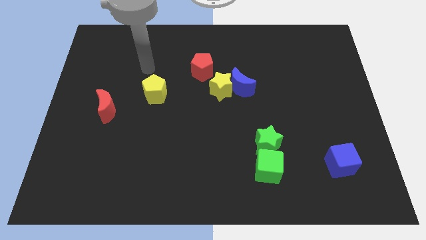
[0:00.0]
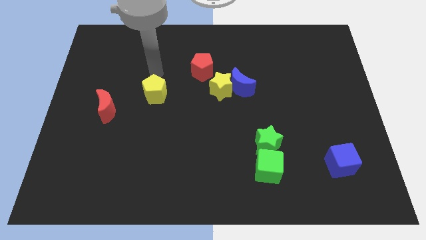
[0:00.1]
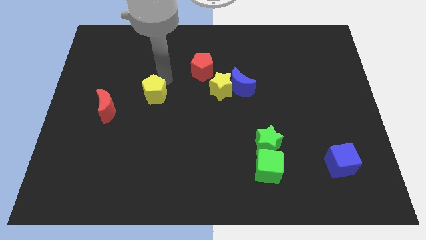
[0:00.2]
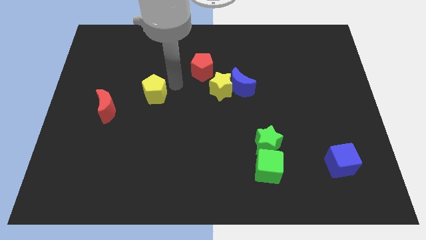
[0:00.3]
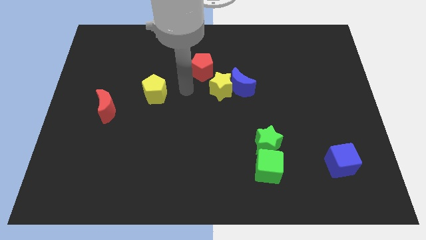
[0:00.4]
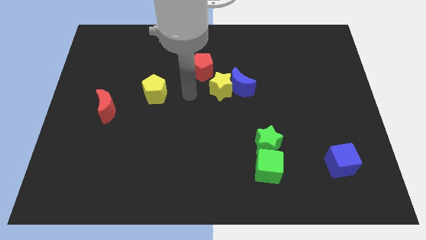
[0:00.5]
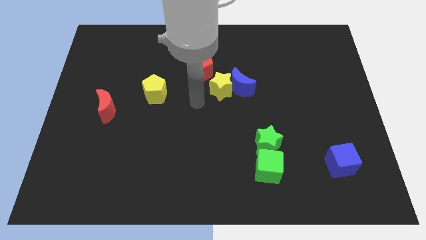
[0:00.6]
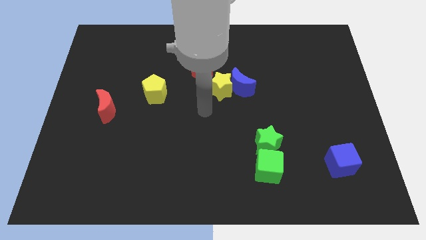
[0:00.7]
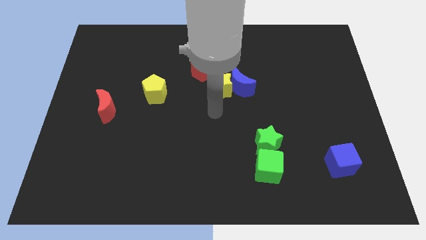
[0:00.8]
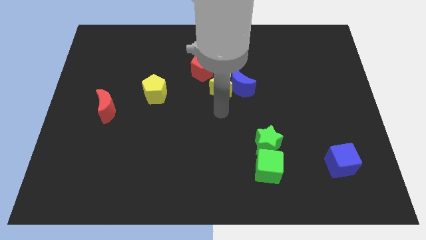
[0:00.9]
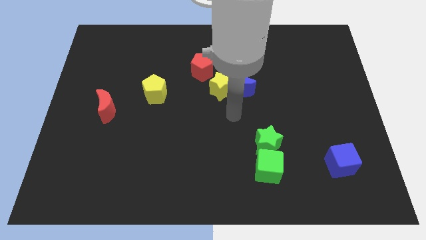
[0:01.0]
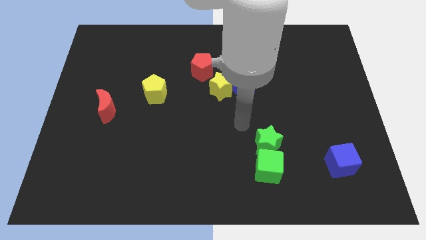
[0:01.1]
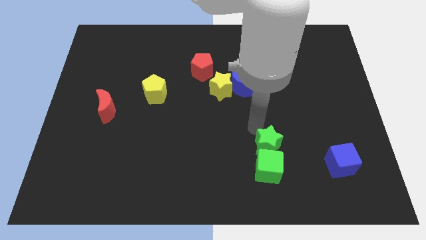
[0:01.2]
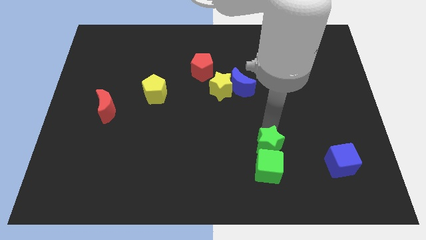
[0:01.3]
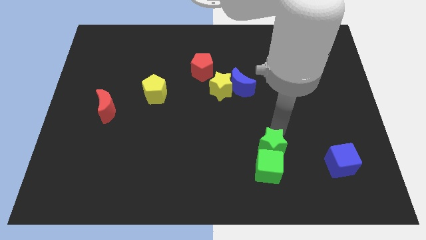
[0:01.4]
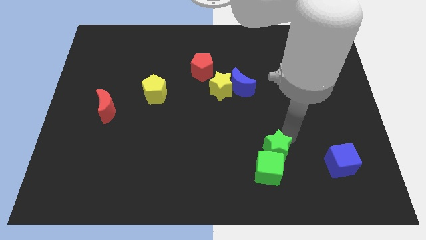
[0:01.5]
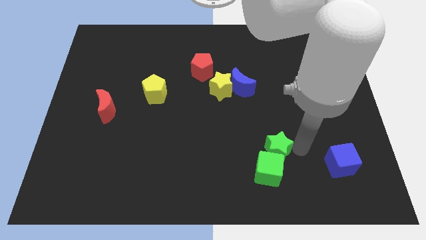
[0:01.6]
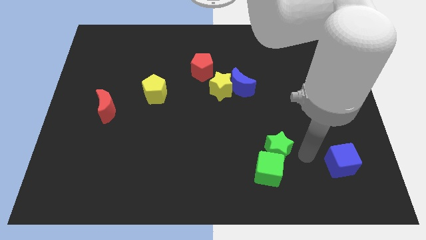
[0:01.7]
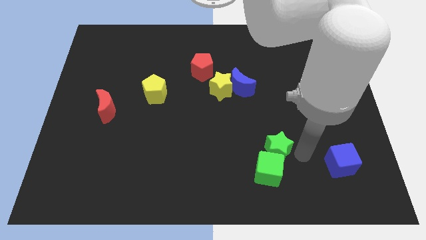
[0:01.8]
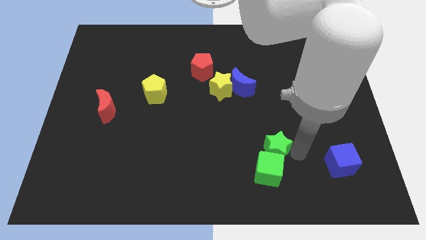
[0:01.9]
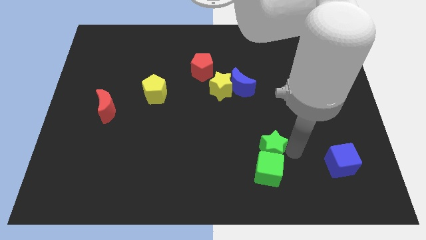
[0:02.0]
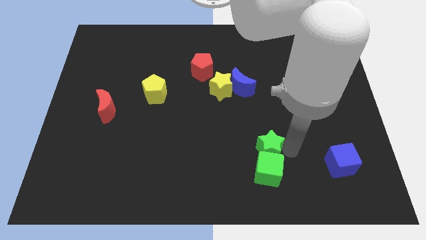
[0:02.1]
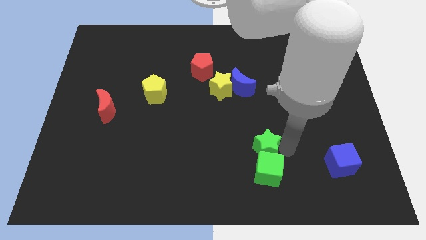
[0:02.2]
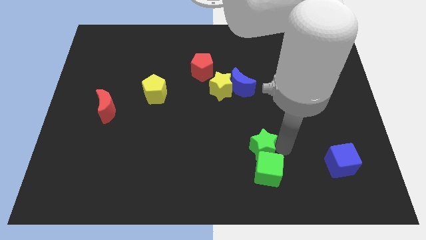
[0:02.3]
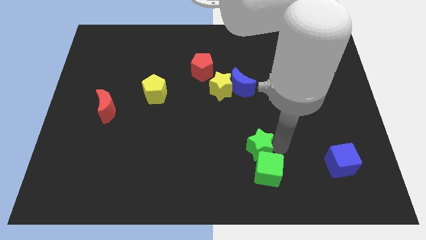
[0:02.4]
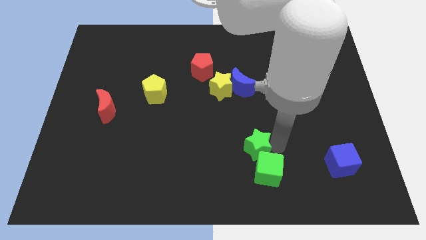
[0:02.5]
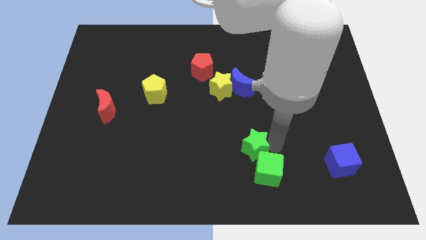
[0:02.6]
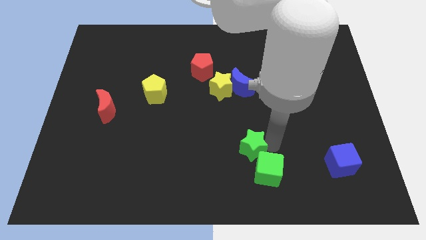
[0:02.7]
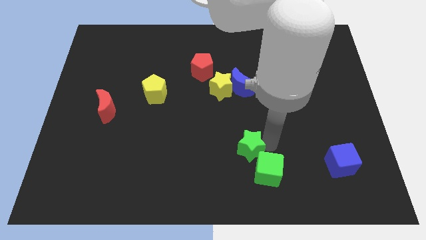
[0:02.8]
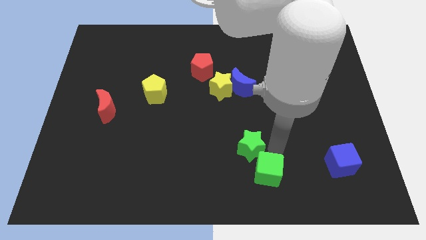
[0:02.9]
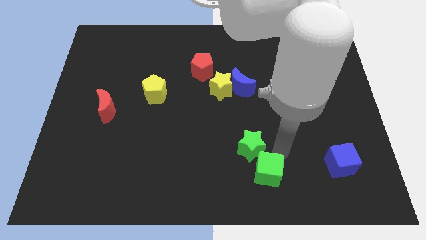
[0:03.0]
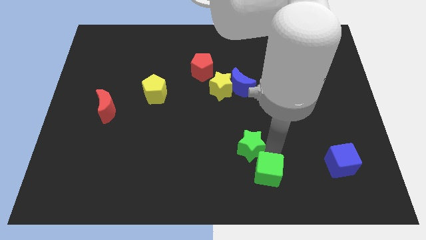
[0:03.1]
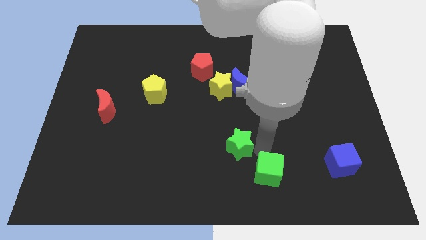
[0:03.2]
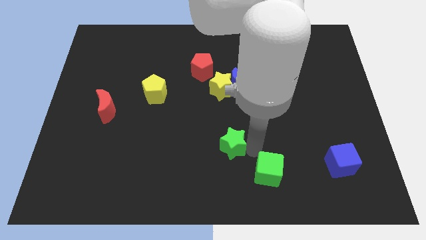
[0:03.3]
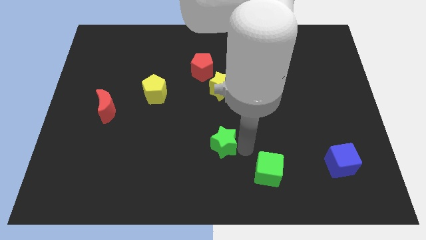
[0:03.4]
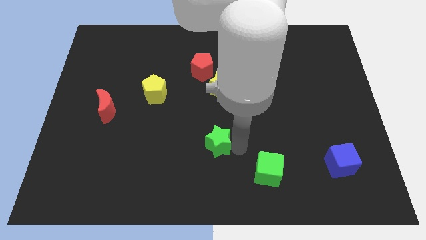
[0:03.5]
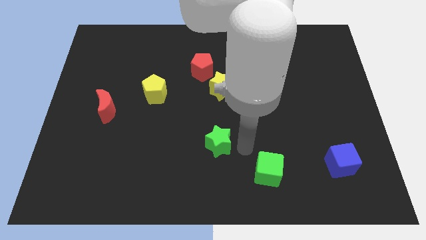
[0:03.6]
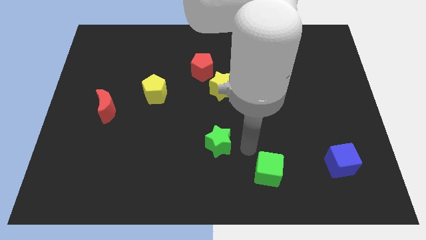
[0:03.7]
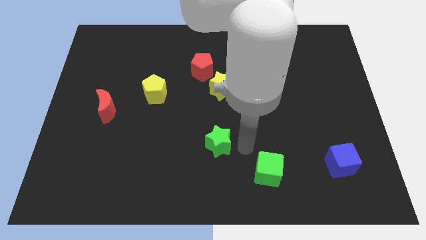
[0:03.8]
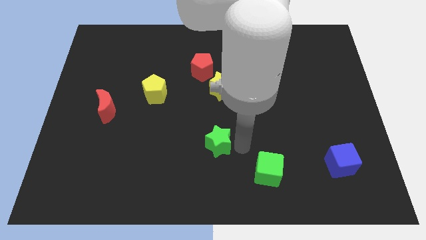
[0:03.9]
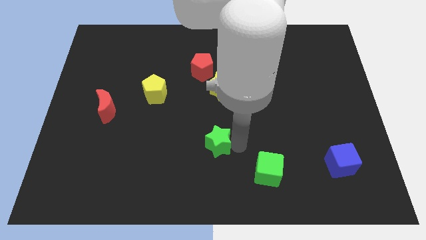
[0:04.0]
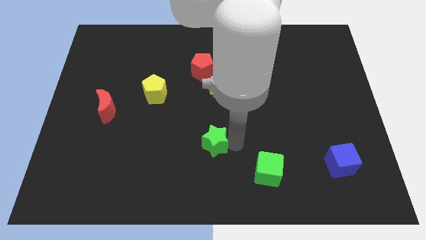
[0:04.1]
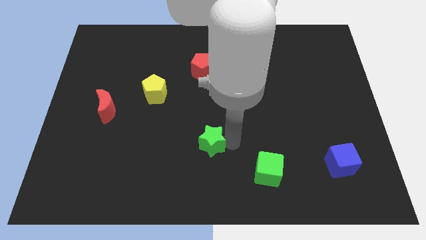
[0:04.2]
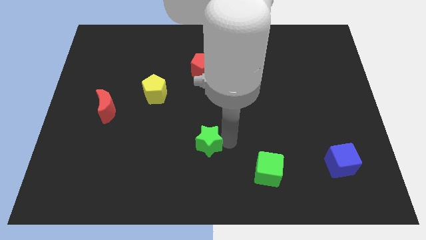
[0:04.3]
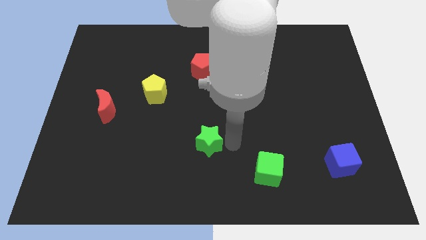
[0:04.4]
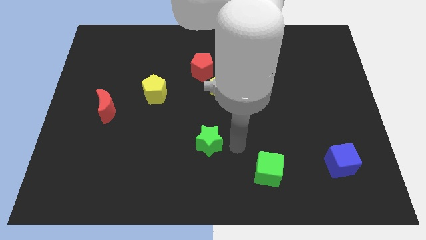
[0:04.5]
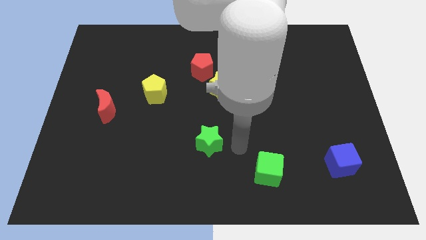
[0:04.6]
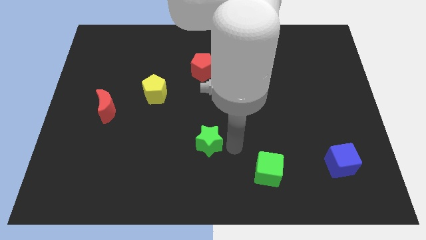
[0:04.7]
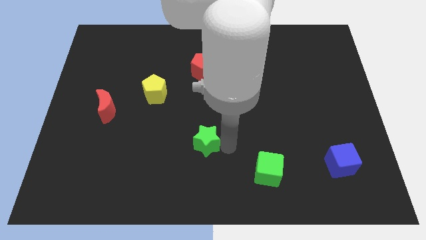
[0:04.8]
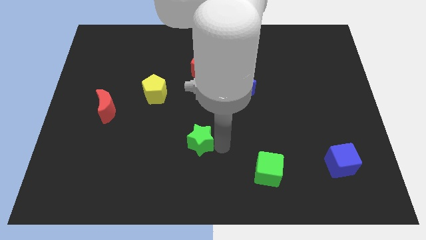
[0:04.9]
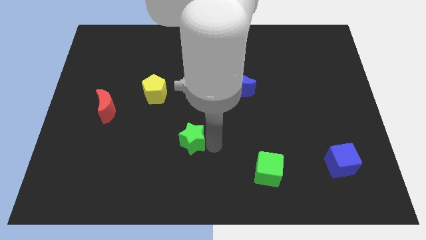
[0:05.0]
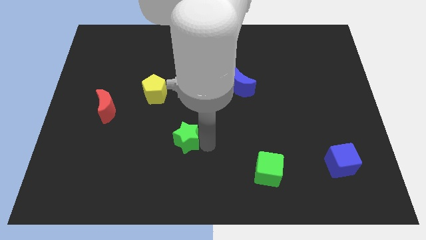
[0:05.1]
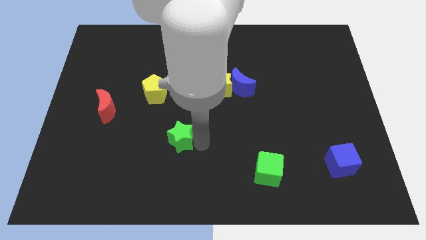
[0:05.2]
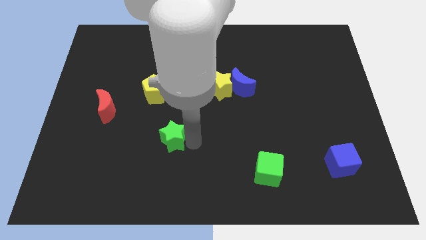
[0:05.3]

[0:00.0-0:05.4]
move the green star left

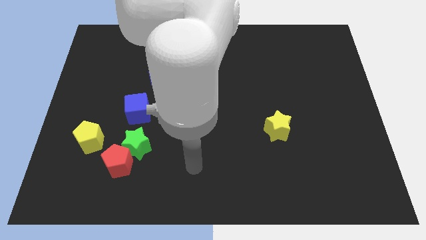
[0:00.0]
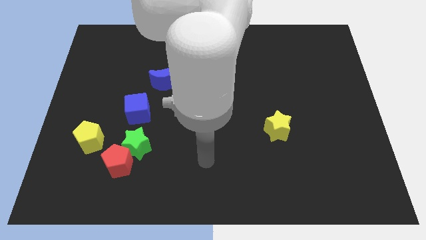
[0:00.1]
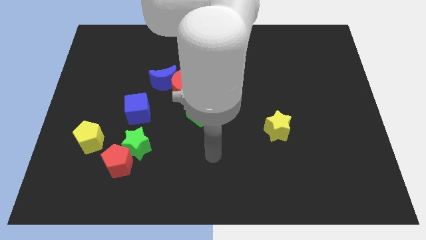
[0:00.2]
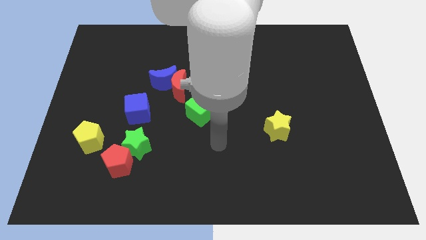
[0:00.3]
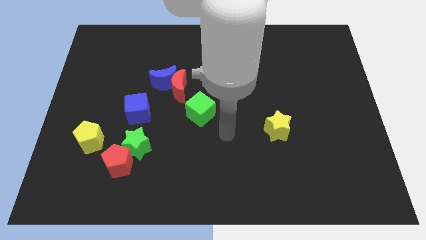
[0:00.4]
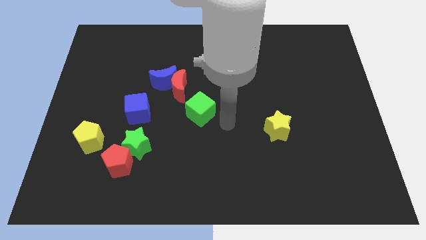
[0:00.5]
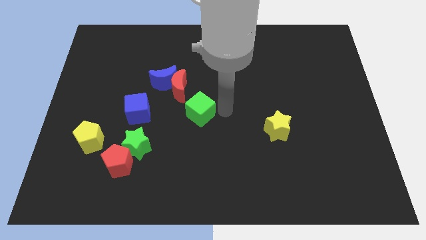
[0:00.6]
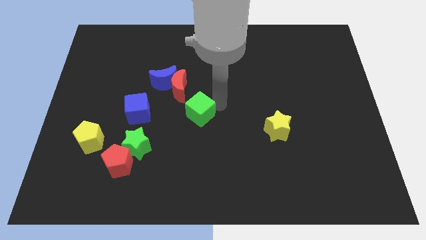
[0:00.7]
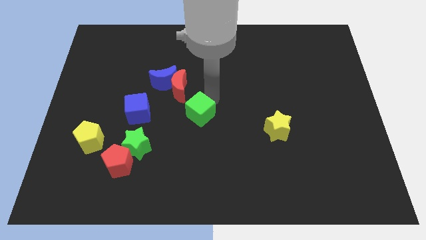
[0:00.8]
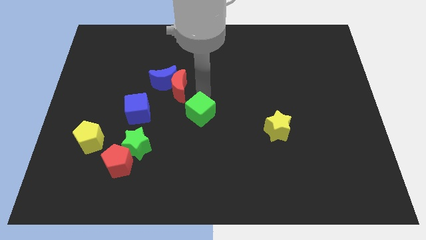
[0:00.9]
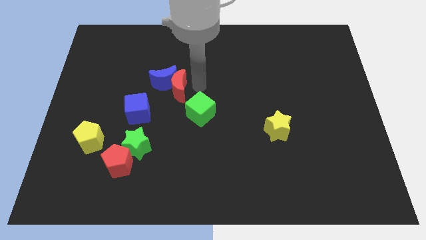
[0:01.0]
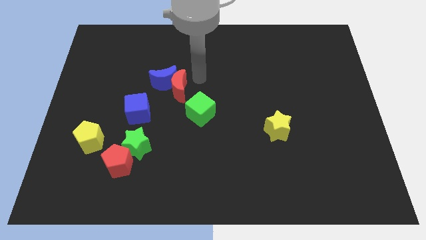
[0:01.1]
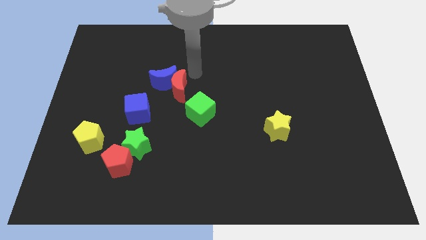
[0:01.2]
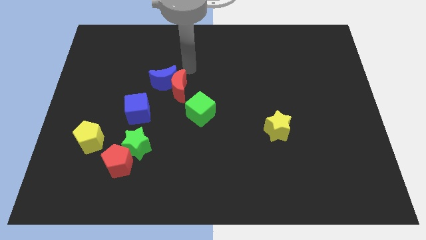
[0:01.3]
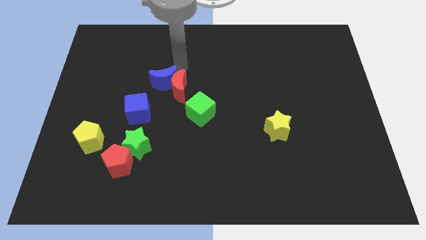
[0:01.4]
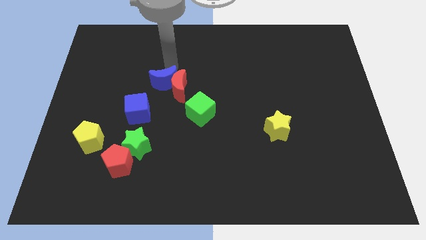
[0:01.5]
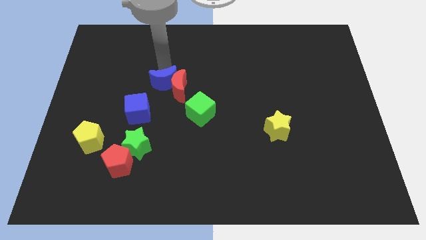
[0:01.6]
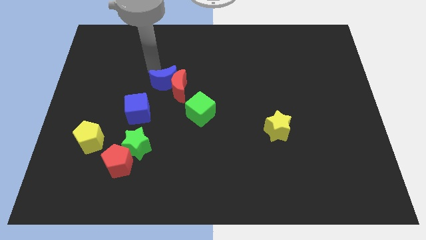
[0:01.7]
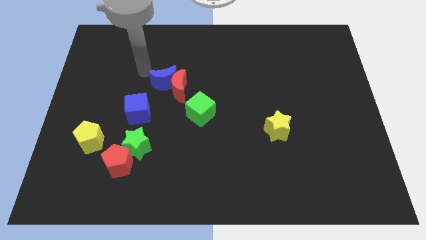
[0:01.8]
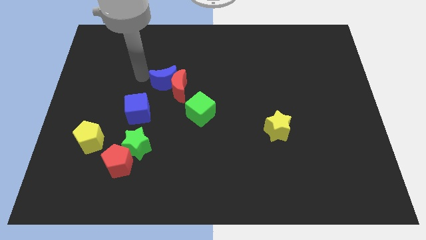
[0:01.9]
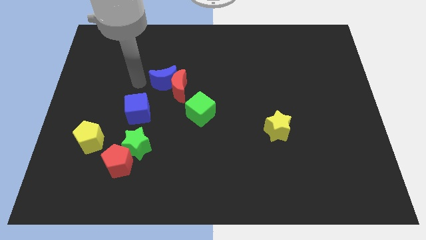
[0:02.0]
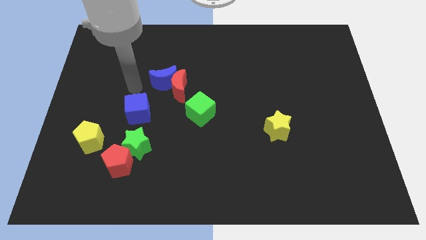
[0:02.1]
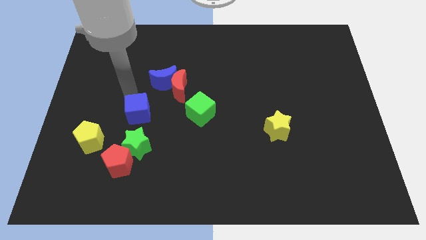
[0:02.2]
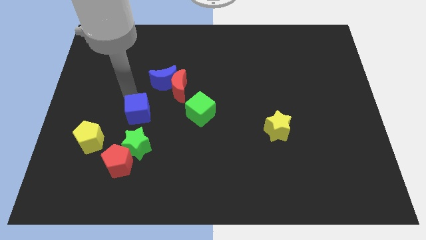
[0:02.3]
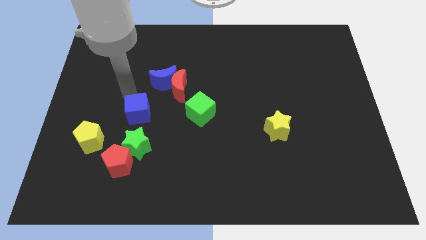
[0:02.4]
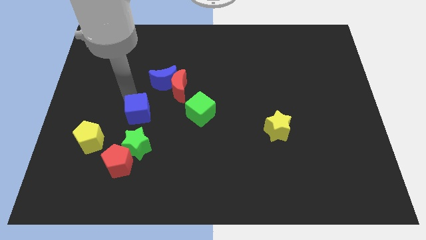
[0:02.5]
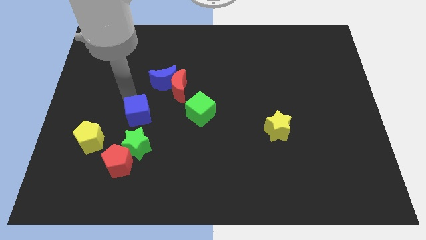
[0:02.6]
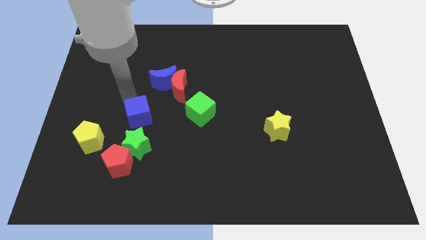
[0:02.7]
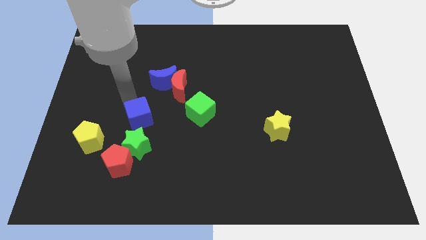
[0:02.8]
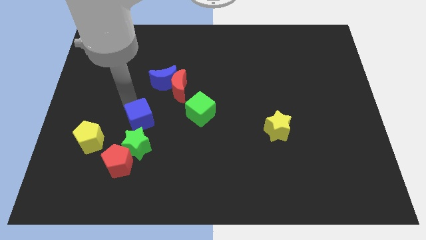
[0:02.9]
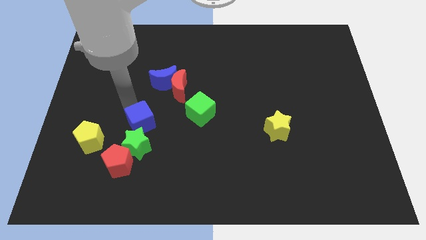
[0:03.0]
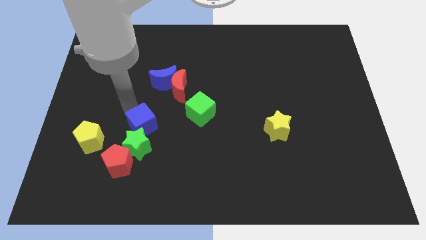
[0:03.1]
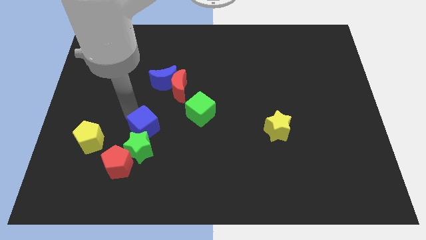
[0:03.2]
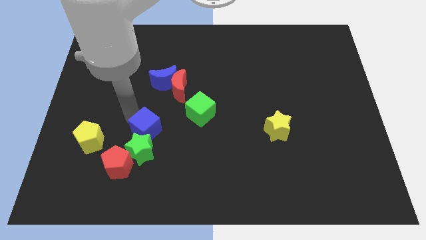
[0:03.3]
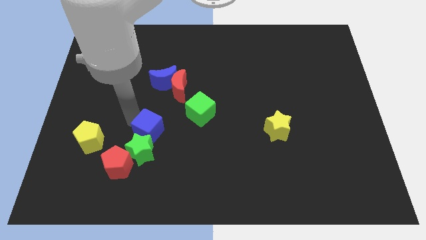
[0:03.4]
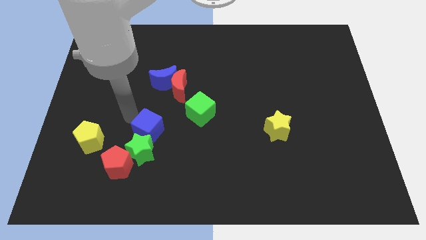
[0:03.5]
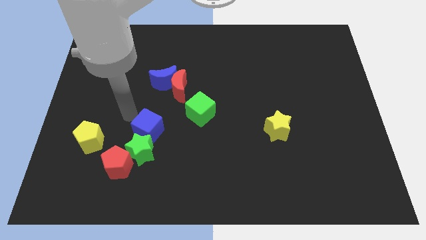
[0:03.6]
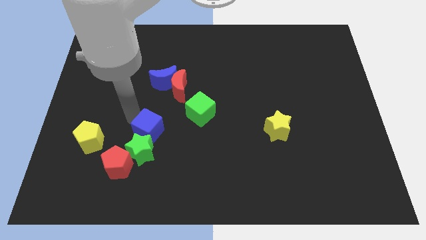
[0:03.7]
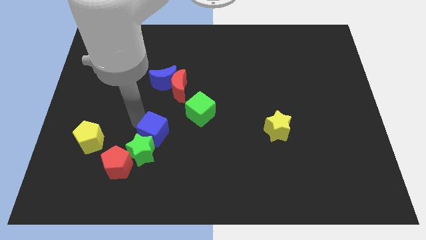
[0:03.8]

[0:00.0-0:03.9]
slightly push the blue cube down and to the right
